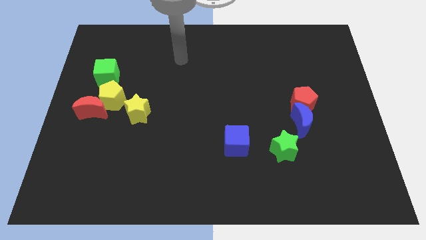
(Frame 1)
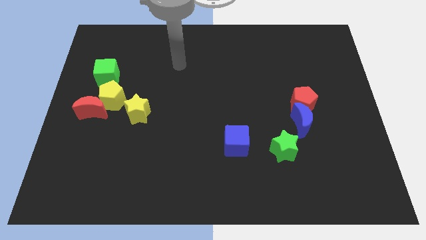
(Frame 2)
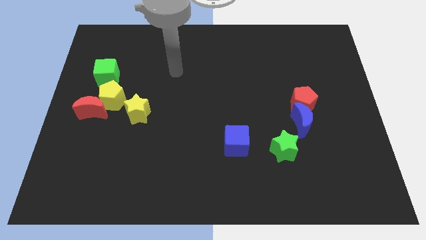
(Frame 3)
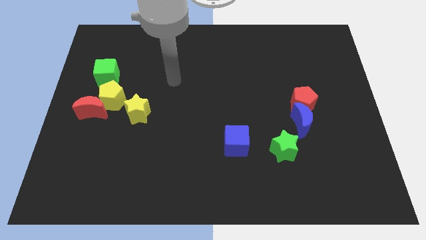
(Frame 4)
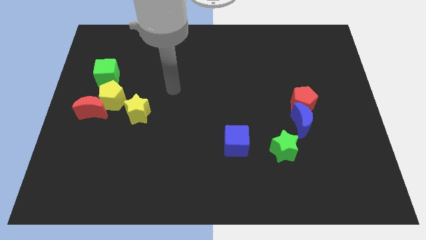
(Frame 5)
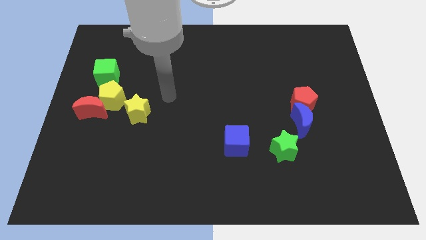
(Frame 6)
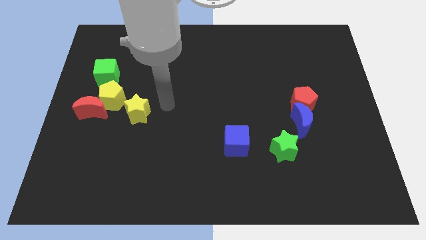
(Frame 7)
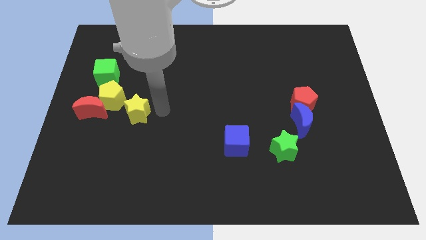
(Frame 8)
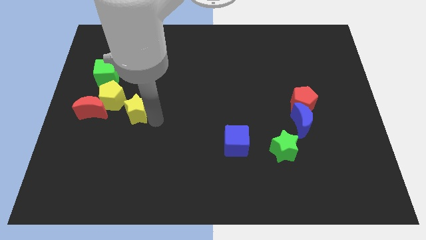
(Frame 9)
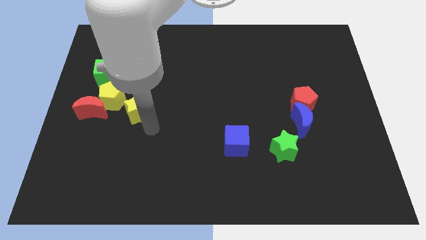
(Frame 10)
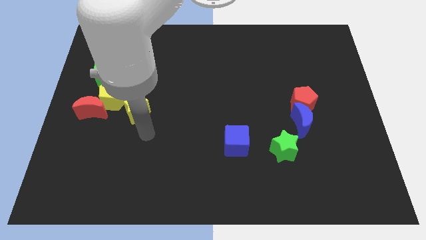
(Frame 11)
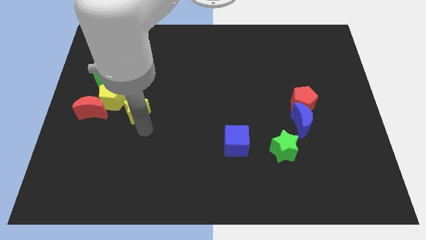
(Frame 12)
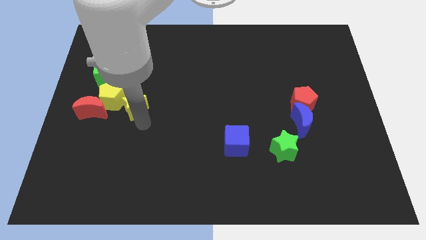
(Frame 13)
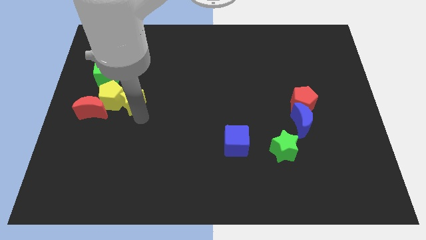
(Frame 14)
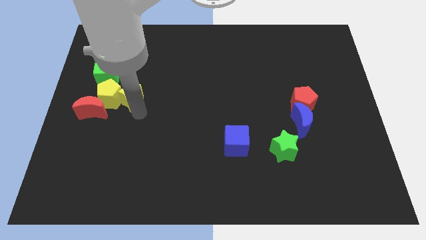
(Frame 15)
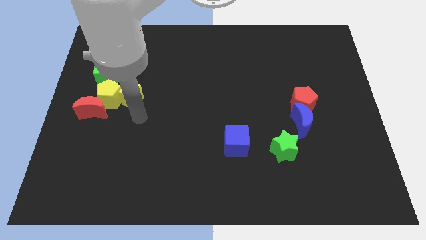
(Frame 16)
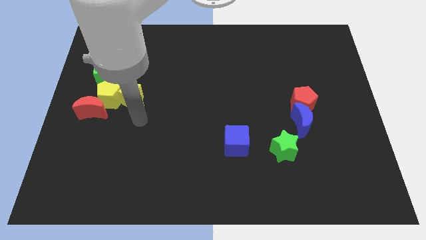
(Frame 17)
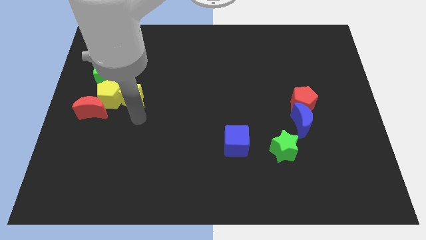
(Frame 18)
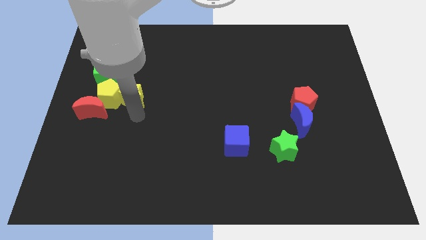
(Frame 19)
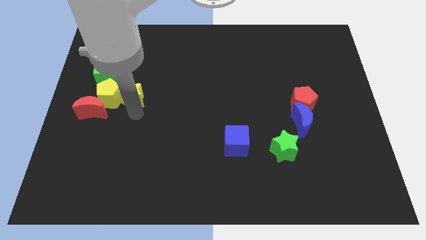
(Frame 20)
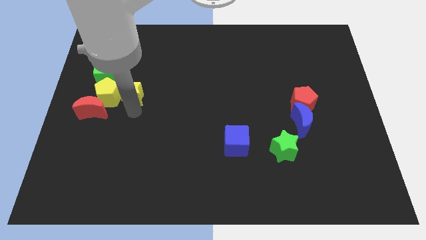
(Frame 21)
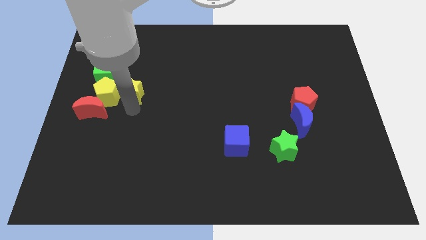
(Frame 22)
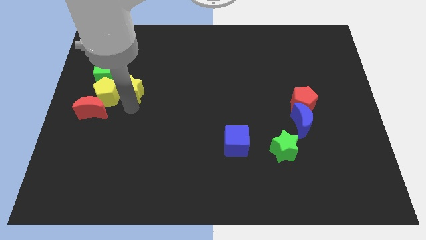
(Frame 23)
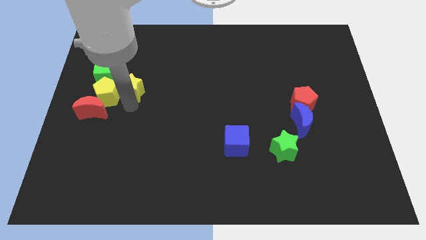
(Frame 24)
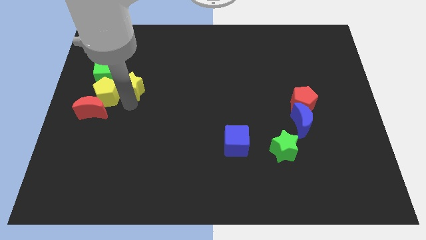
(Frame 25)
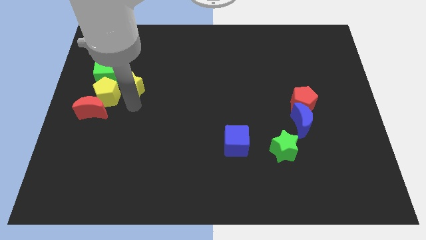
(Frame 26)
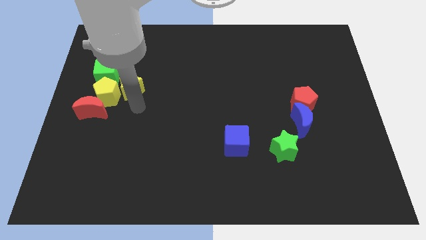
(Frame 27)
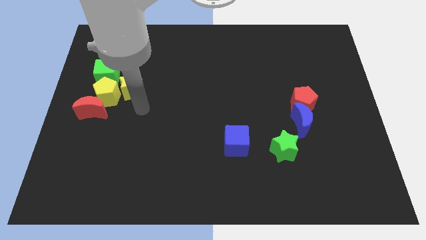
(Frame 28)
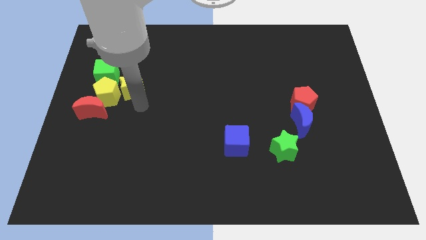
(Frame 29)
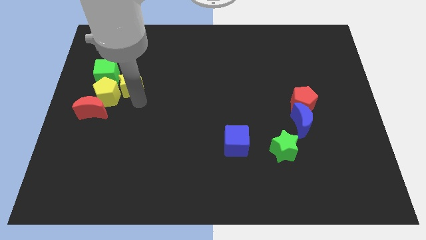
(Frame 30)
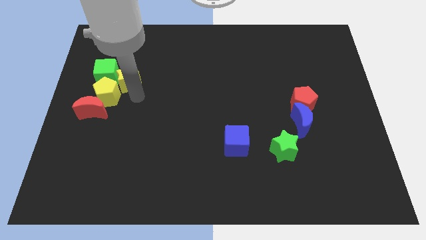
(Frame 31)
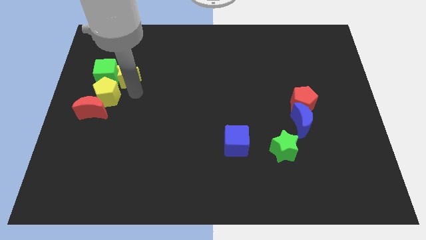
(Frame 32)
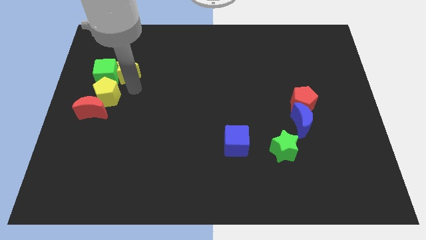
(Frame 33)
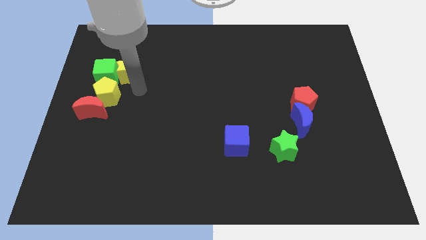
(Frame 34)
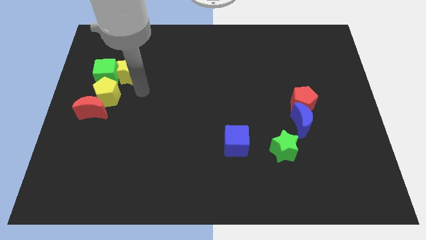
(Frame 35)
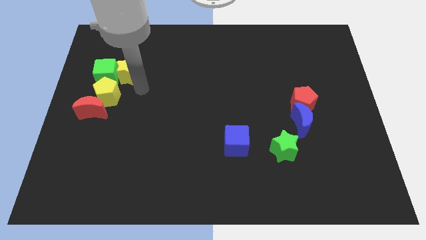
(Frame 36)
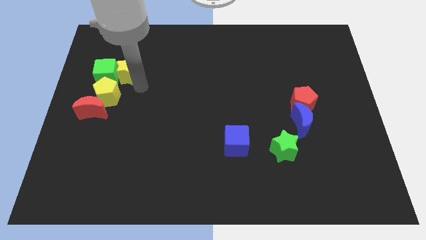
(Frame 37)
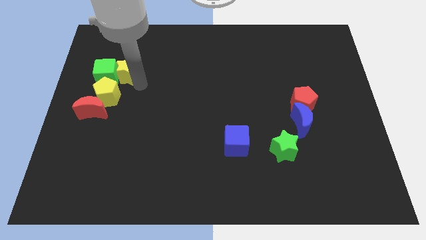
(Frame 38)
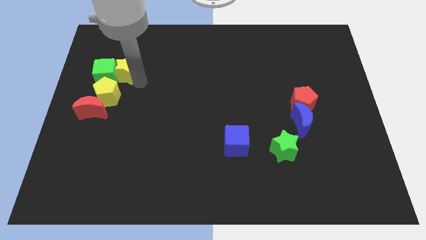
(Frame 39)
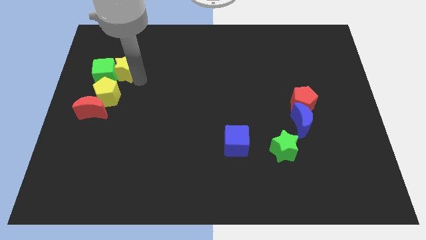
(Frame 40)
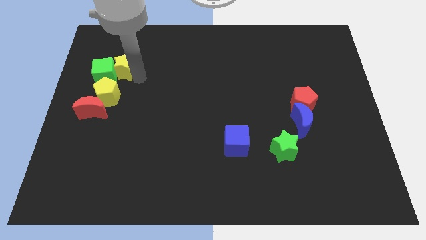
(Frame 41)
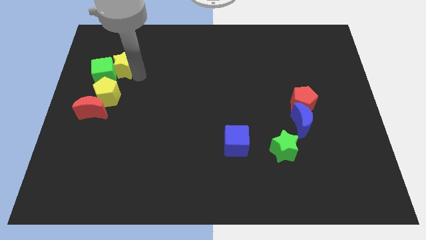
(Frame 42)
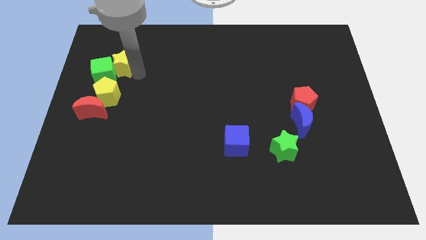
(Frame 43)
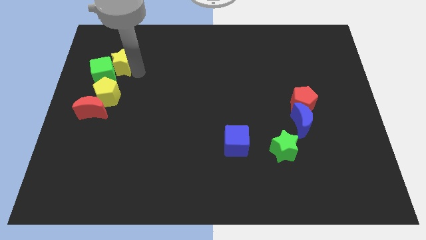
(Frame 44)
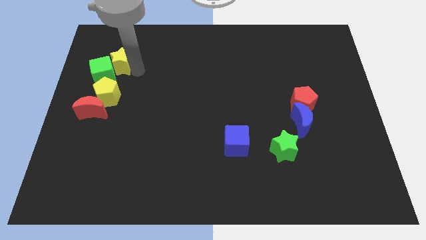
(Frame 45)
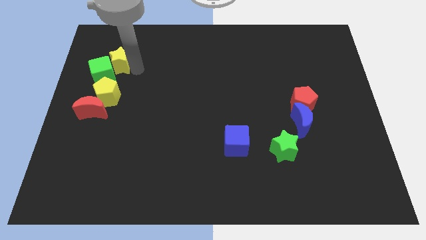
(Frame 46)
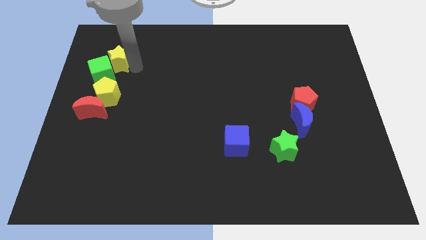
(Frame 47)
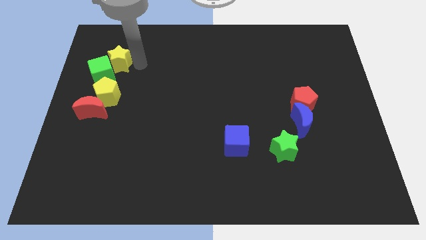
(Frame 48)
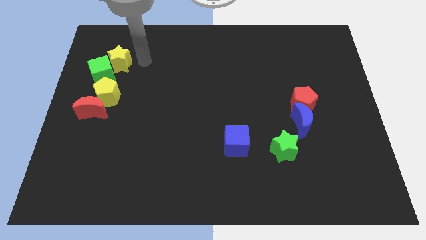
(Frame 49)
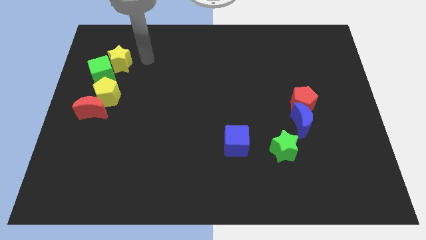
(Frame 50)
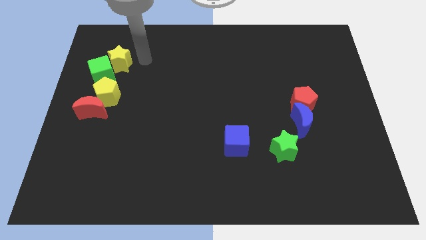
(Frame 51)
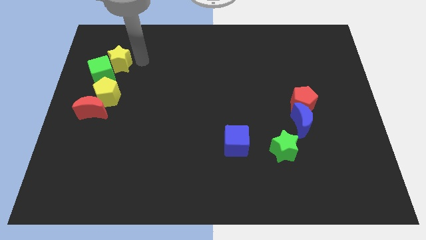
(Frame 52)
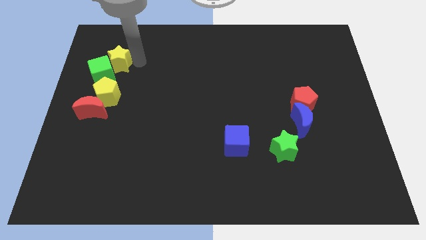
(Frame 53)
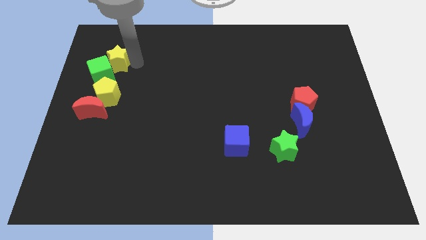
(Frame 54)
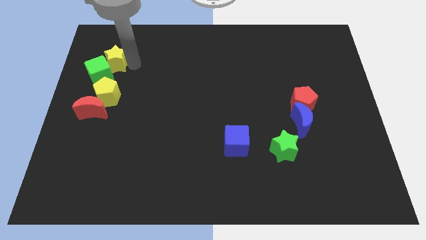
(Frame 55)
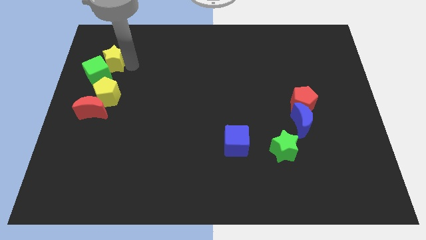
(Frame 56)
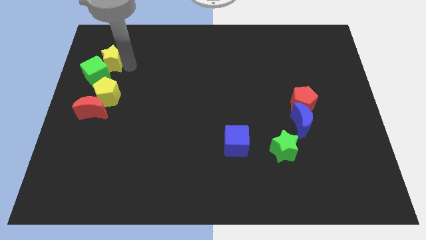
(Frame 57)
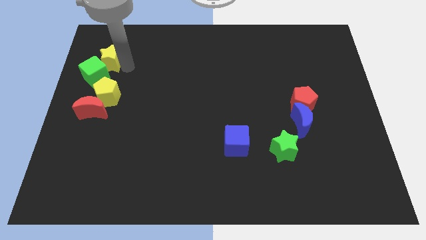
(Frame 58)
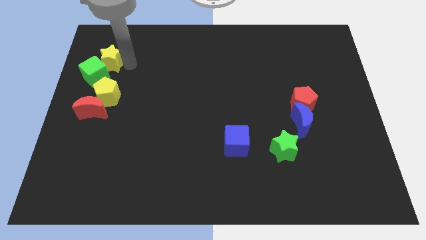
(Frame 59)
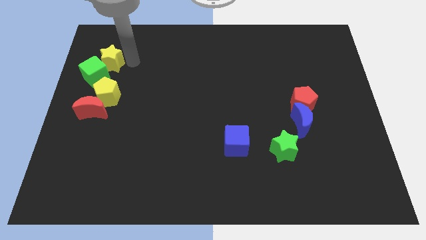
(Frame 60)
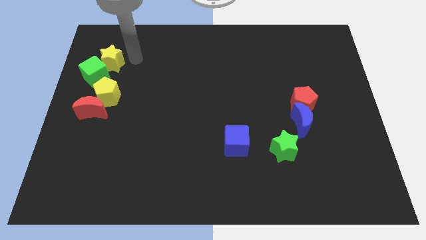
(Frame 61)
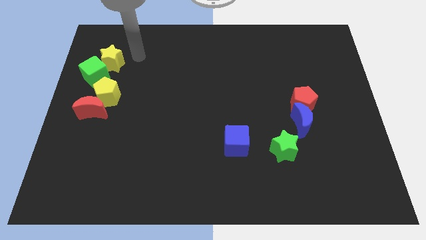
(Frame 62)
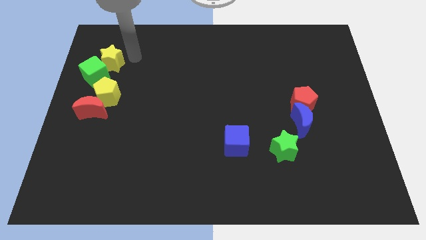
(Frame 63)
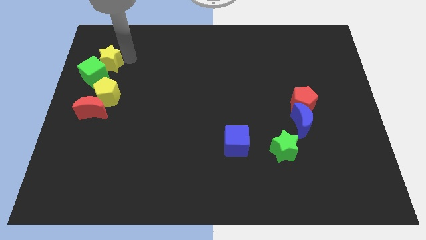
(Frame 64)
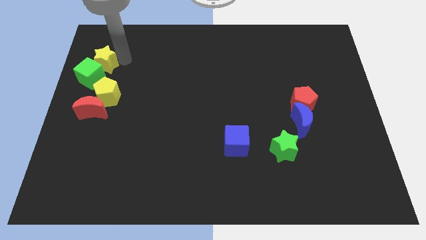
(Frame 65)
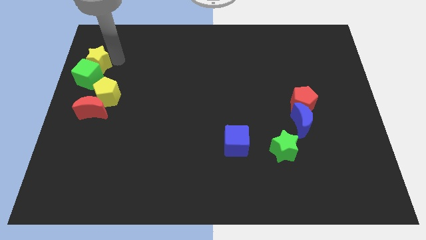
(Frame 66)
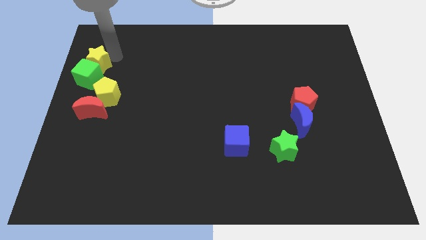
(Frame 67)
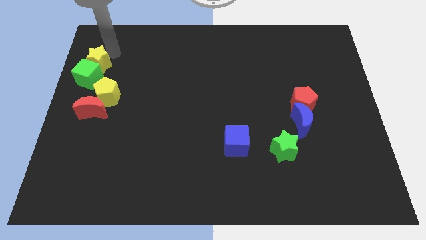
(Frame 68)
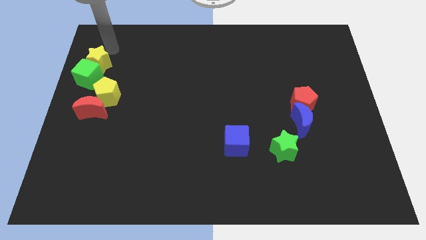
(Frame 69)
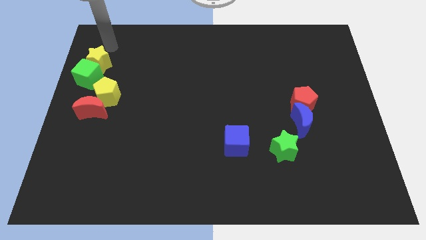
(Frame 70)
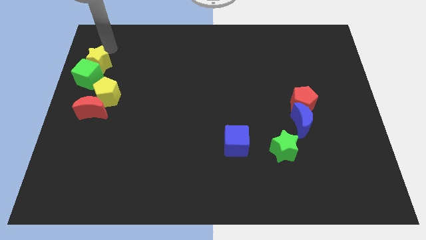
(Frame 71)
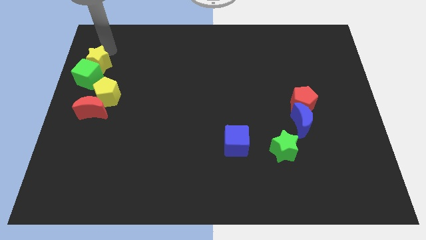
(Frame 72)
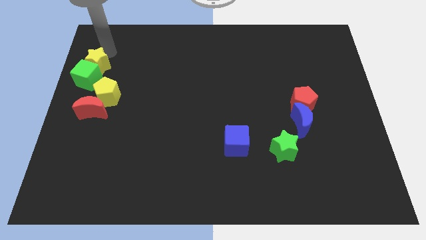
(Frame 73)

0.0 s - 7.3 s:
move the yellow star to the top left of the yellow pentagon
